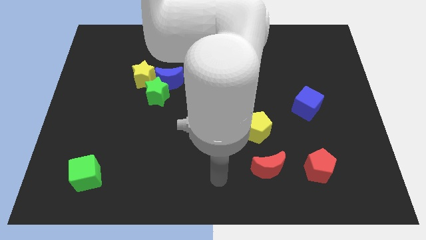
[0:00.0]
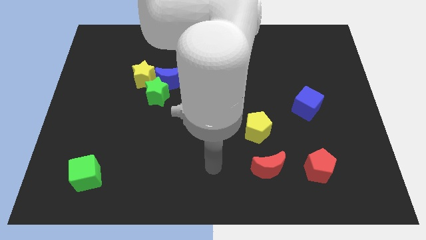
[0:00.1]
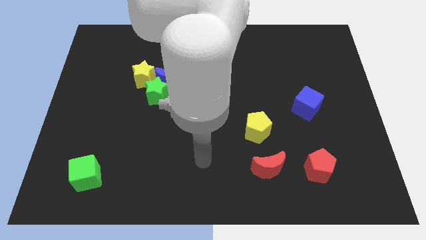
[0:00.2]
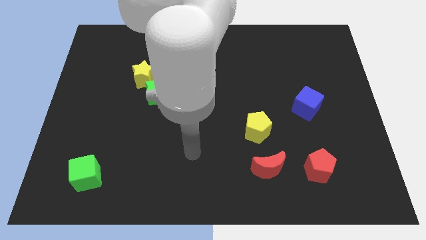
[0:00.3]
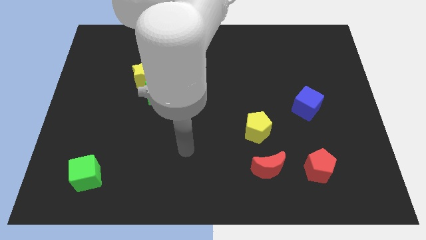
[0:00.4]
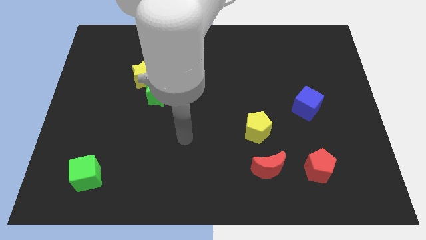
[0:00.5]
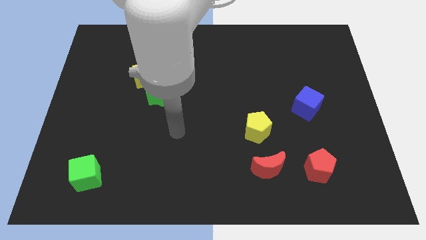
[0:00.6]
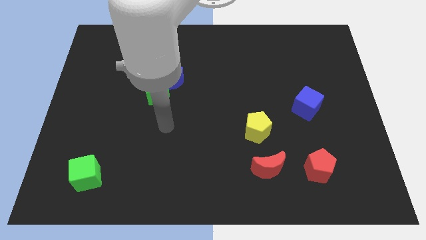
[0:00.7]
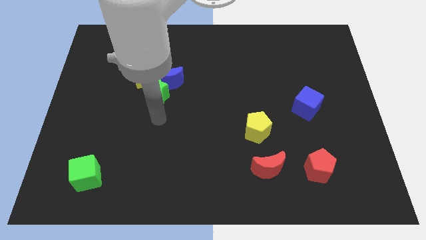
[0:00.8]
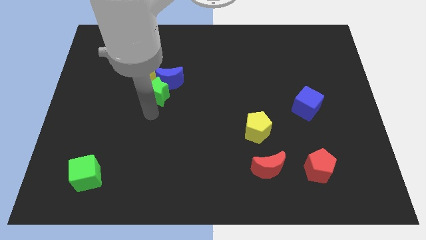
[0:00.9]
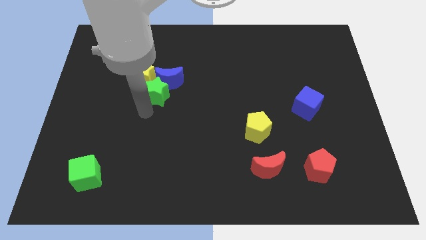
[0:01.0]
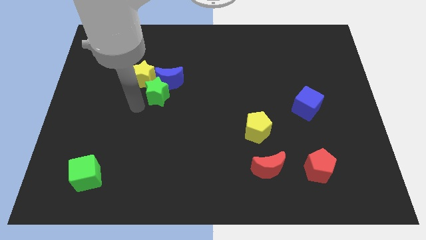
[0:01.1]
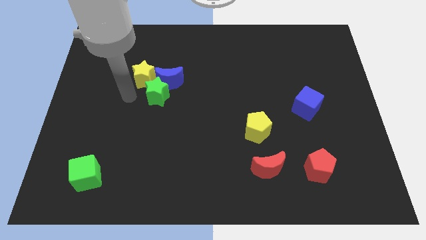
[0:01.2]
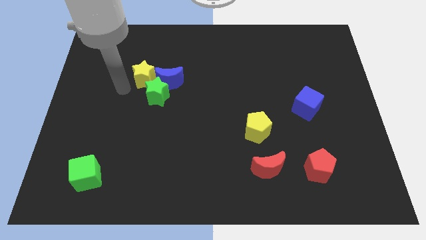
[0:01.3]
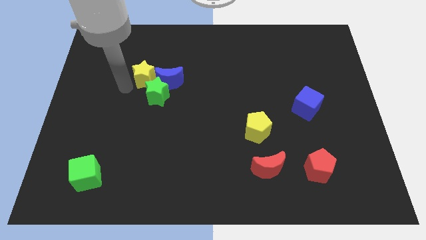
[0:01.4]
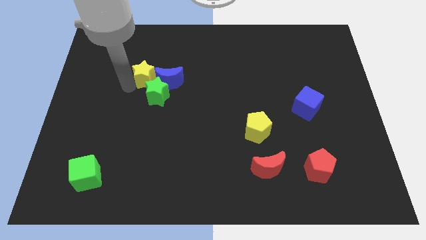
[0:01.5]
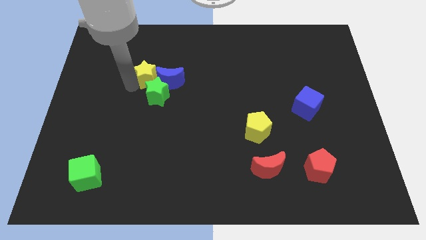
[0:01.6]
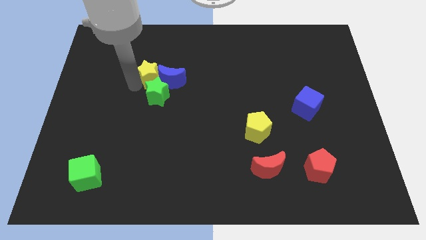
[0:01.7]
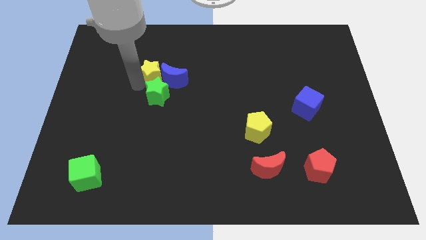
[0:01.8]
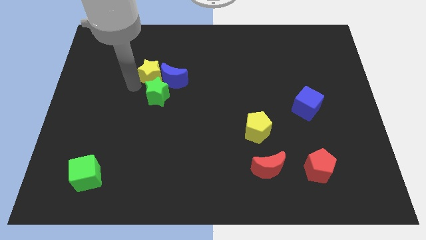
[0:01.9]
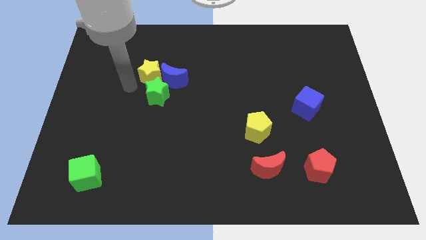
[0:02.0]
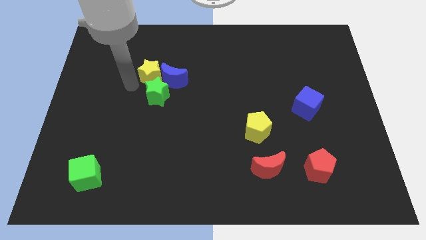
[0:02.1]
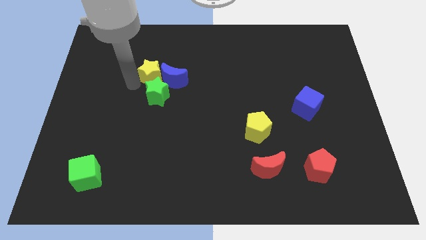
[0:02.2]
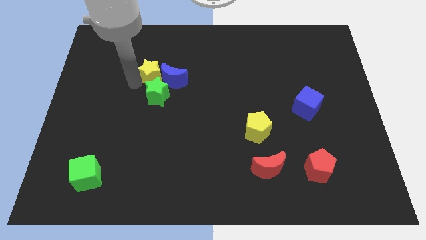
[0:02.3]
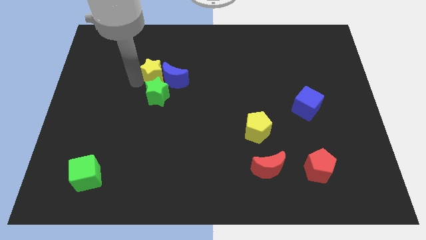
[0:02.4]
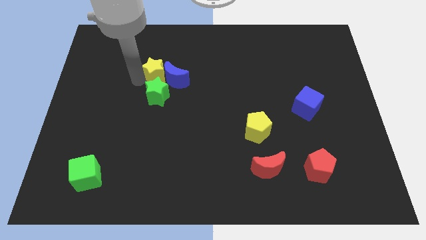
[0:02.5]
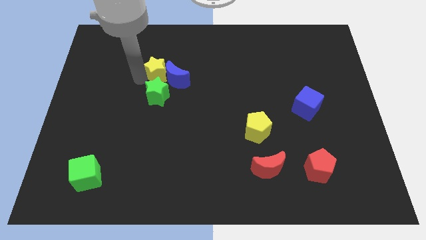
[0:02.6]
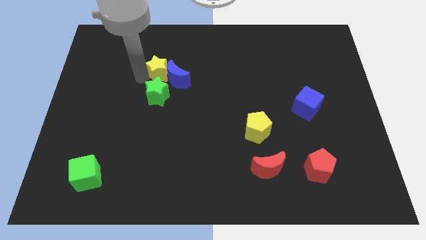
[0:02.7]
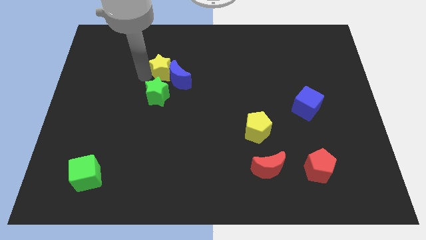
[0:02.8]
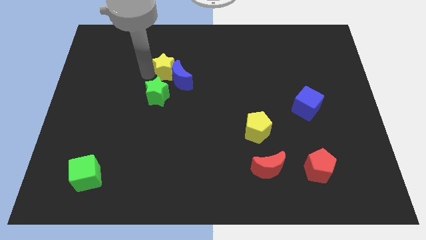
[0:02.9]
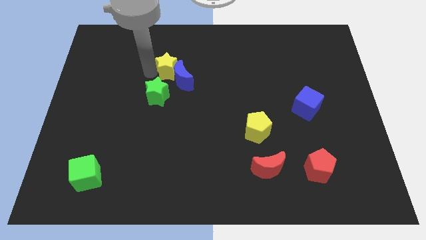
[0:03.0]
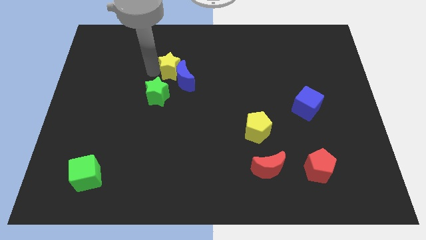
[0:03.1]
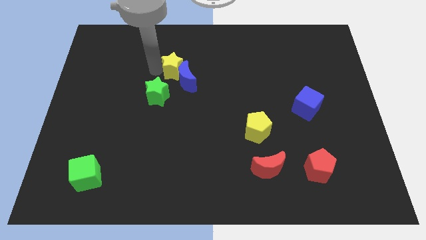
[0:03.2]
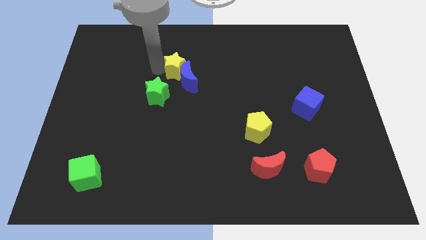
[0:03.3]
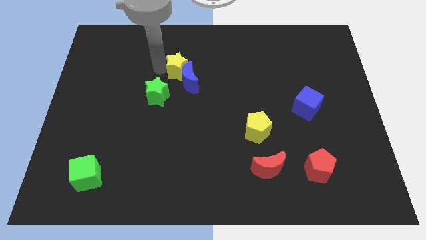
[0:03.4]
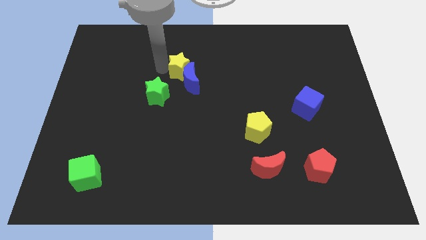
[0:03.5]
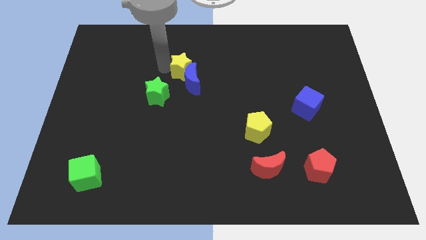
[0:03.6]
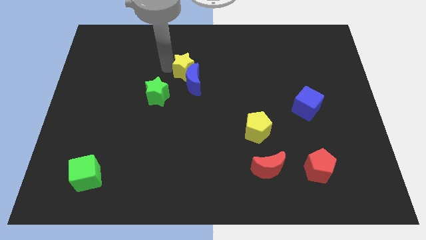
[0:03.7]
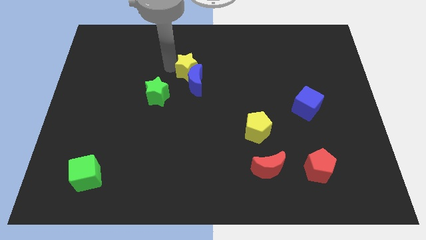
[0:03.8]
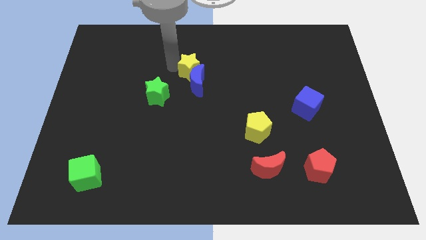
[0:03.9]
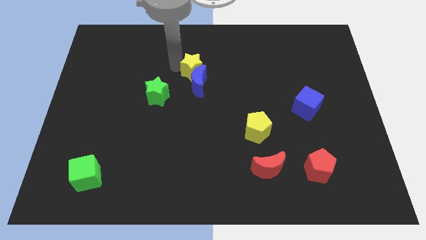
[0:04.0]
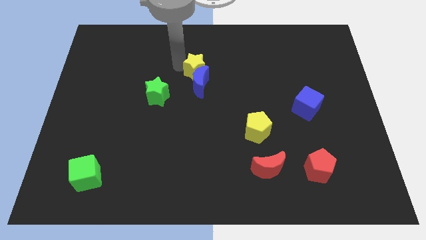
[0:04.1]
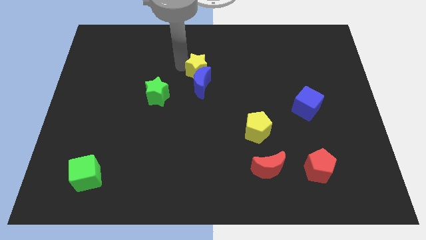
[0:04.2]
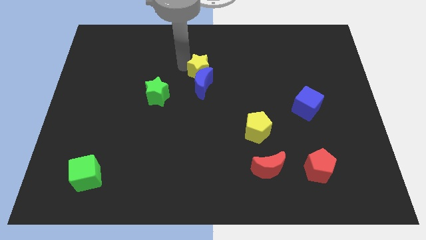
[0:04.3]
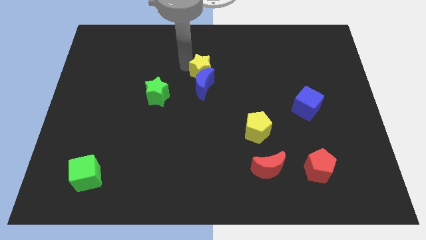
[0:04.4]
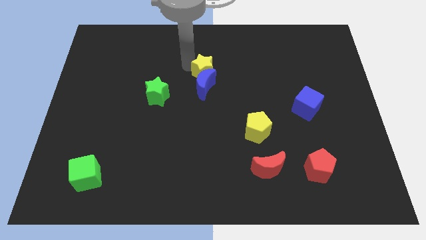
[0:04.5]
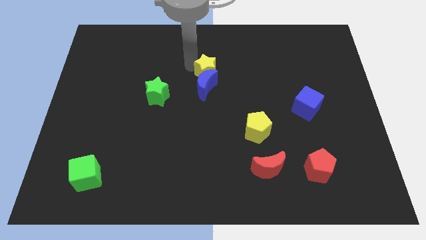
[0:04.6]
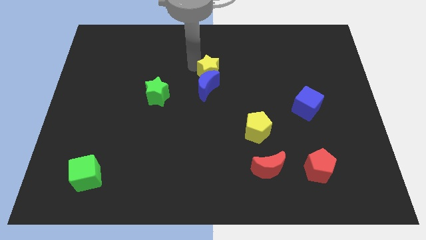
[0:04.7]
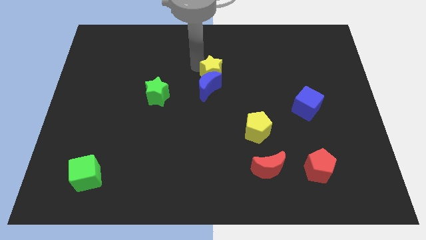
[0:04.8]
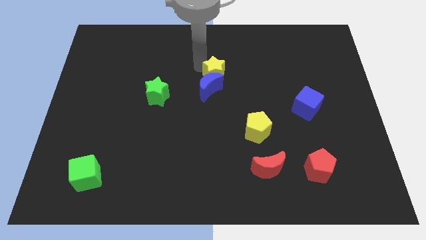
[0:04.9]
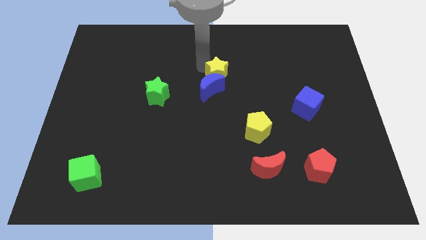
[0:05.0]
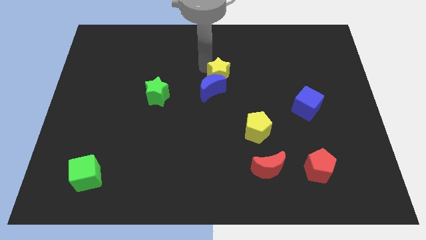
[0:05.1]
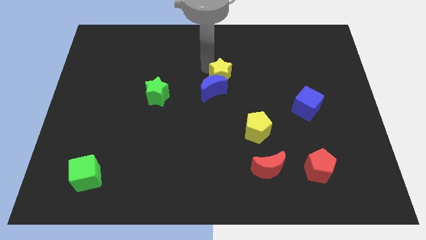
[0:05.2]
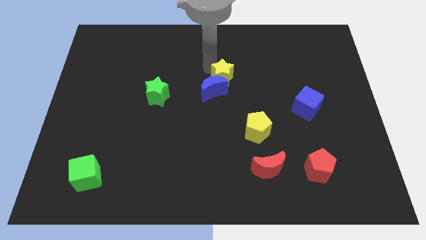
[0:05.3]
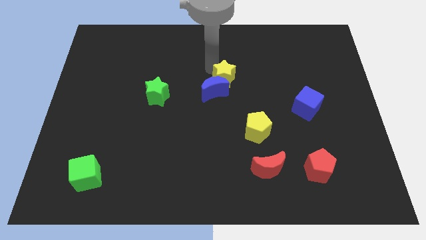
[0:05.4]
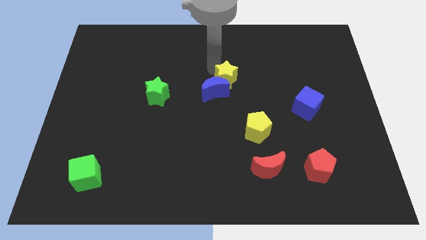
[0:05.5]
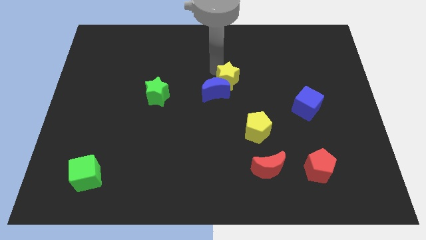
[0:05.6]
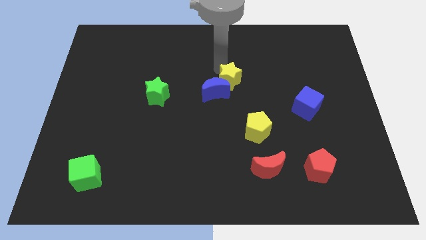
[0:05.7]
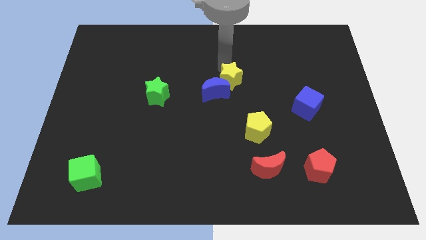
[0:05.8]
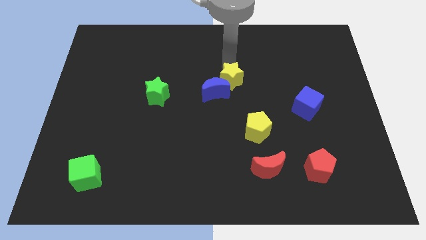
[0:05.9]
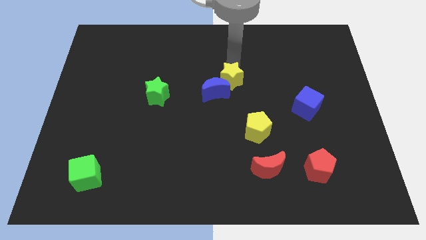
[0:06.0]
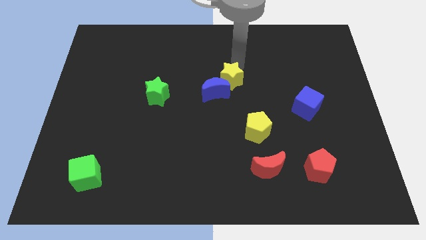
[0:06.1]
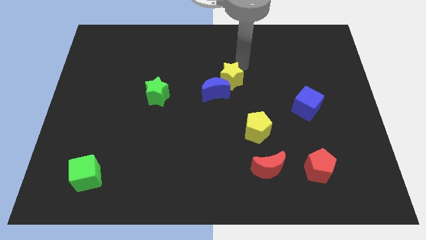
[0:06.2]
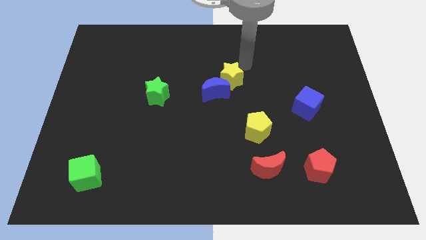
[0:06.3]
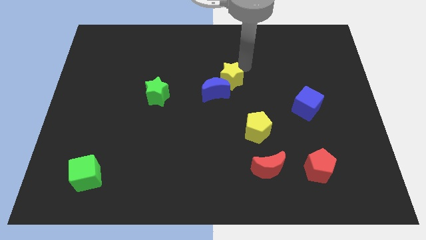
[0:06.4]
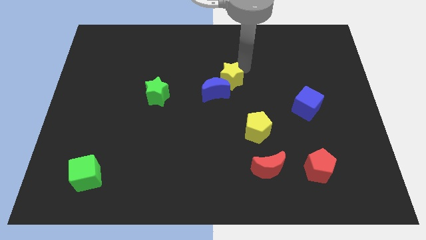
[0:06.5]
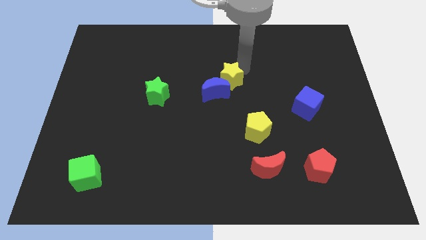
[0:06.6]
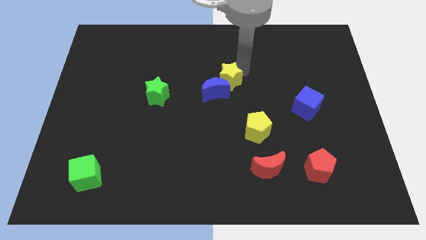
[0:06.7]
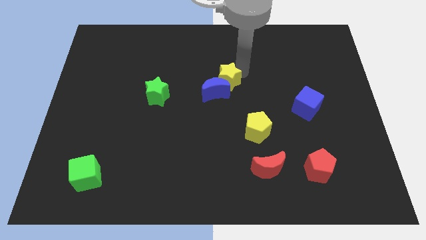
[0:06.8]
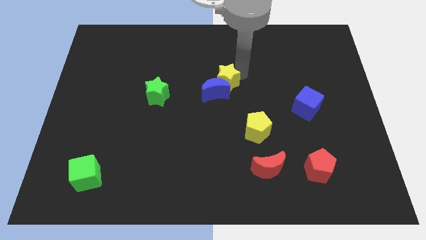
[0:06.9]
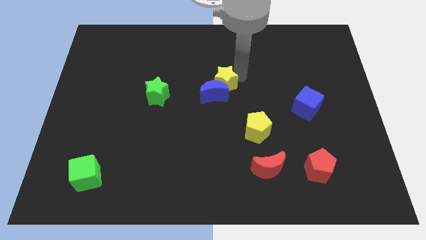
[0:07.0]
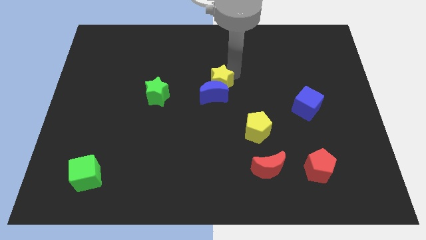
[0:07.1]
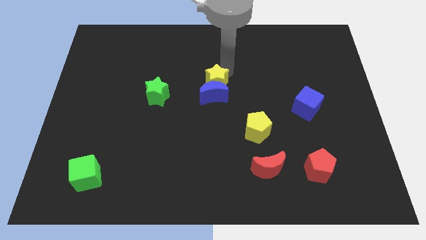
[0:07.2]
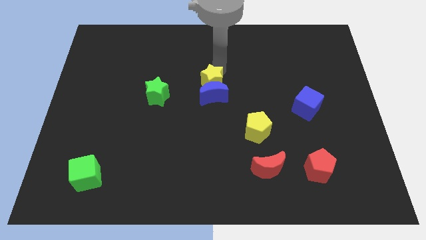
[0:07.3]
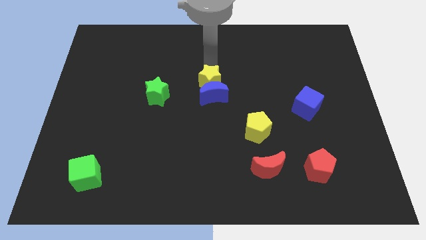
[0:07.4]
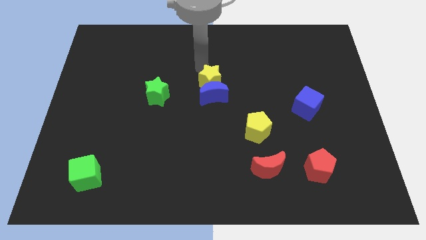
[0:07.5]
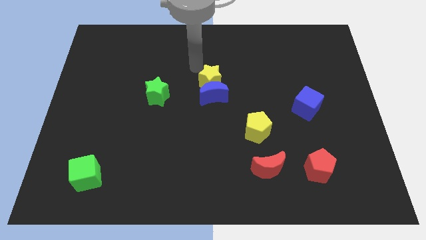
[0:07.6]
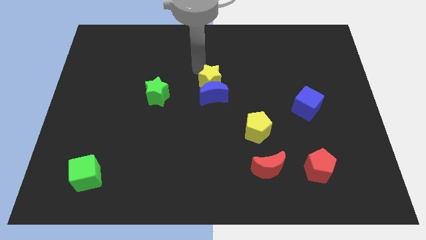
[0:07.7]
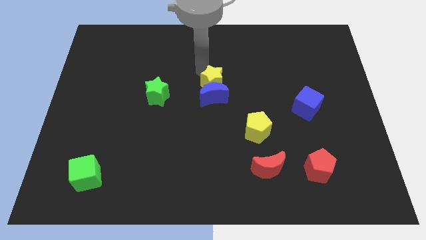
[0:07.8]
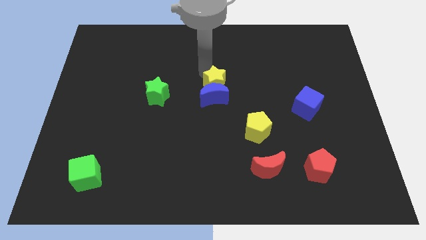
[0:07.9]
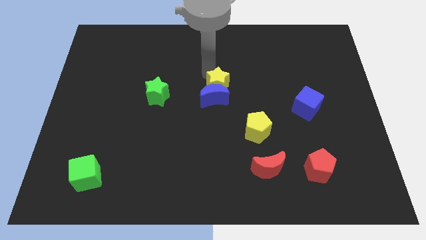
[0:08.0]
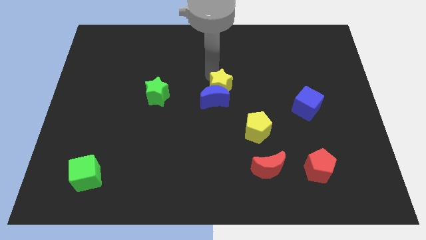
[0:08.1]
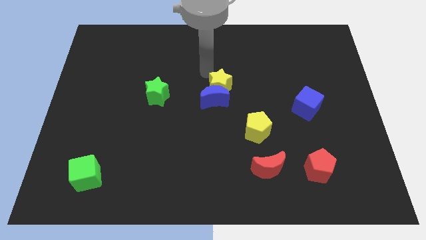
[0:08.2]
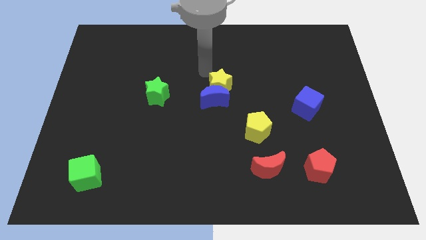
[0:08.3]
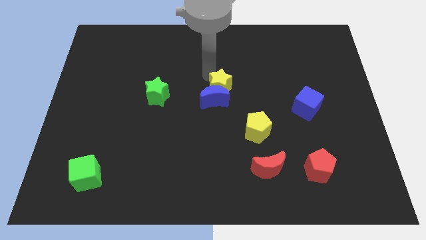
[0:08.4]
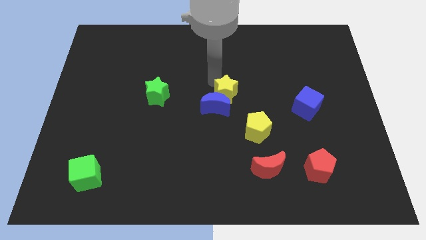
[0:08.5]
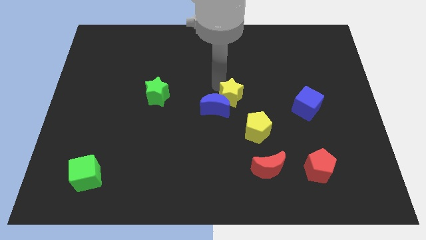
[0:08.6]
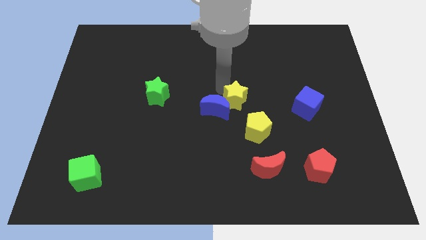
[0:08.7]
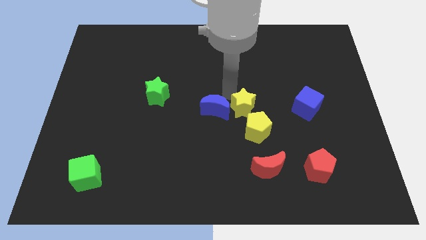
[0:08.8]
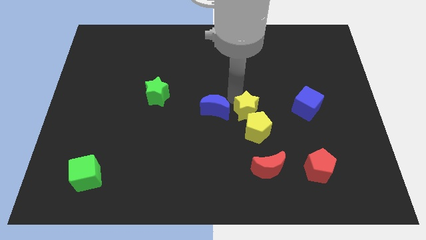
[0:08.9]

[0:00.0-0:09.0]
put the yellow star close to the yellow pentagon
